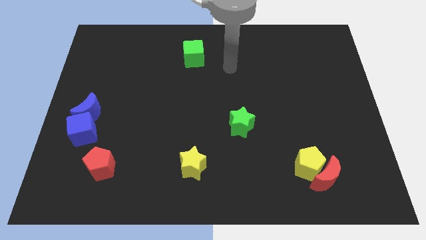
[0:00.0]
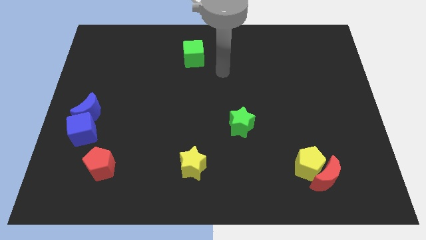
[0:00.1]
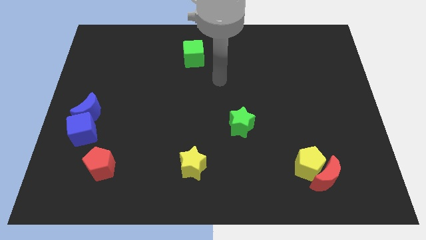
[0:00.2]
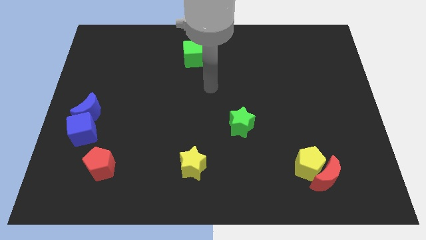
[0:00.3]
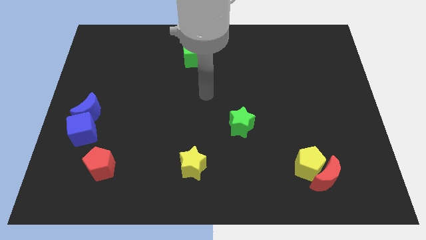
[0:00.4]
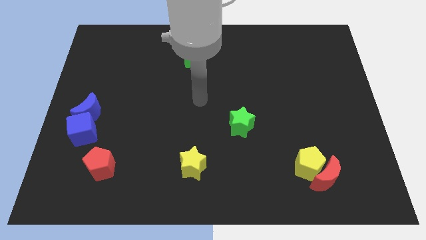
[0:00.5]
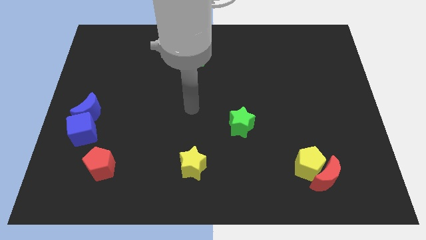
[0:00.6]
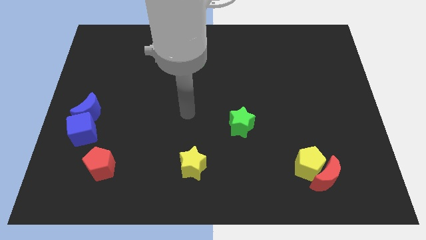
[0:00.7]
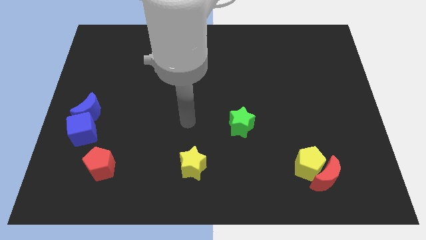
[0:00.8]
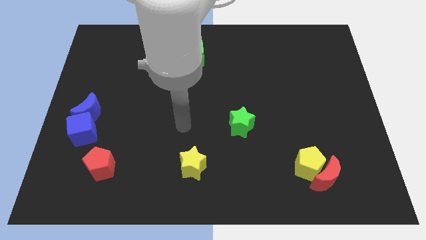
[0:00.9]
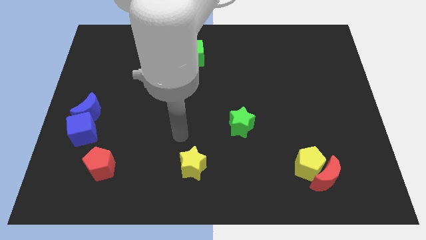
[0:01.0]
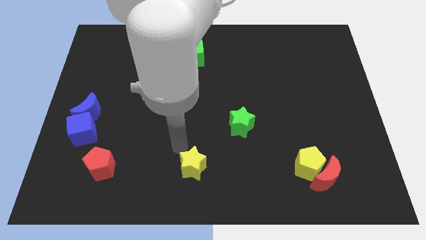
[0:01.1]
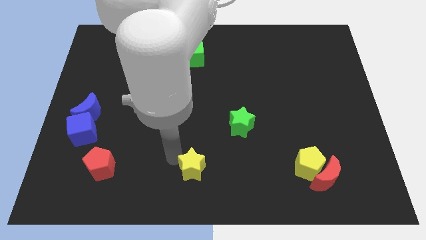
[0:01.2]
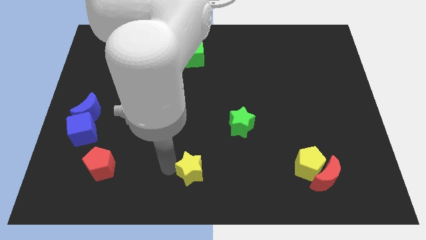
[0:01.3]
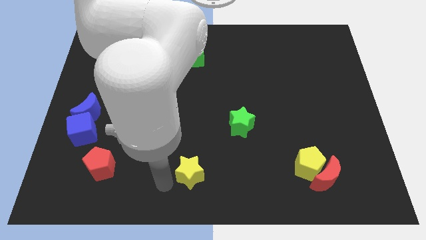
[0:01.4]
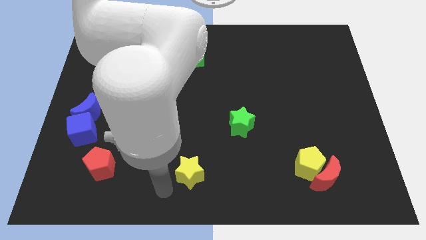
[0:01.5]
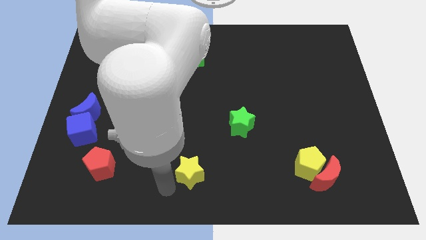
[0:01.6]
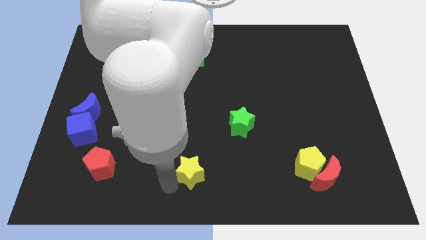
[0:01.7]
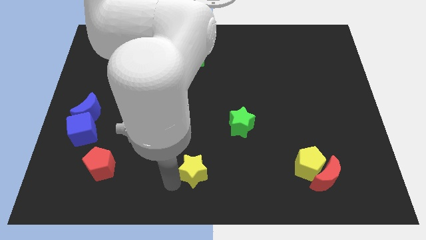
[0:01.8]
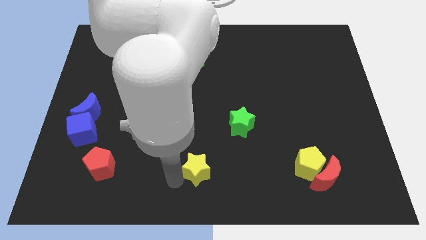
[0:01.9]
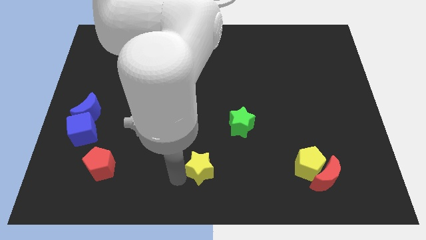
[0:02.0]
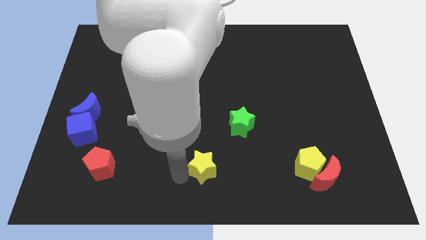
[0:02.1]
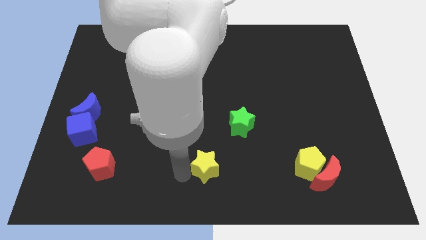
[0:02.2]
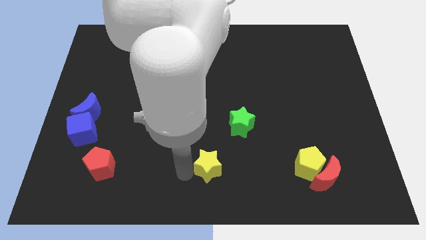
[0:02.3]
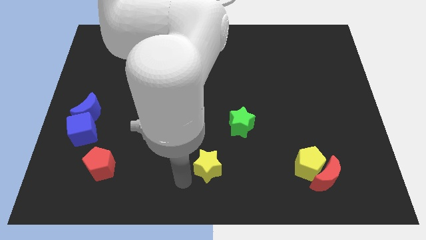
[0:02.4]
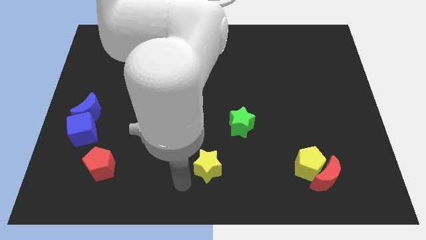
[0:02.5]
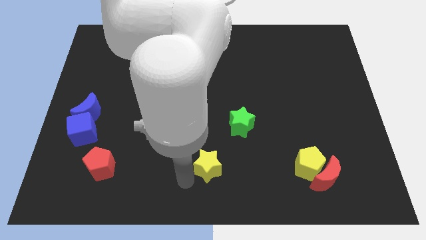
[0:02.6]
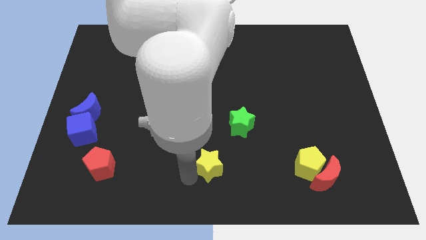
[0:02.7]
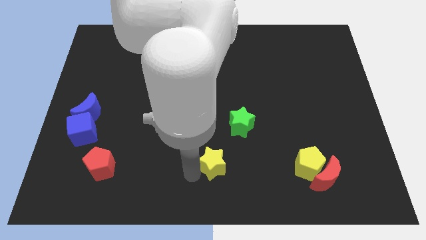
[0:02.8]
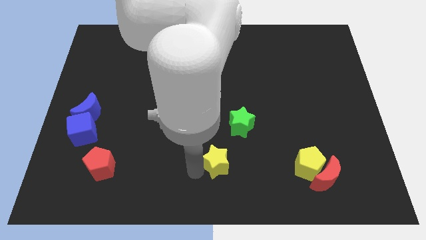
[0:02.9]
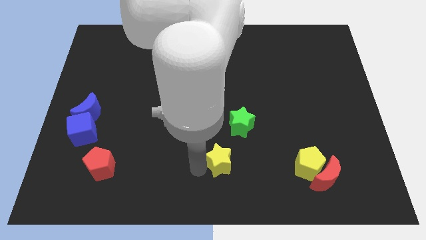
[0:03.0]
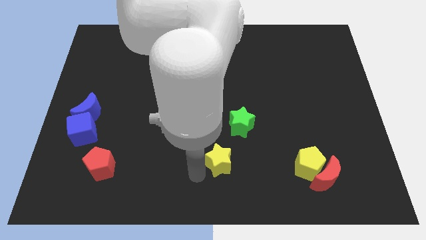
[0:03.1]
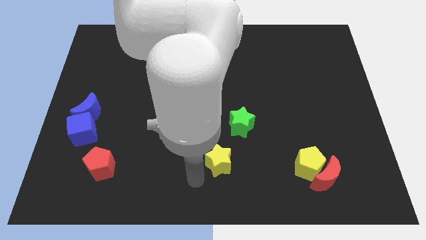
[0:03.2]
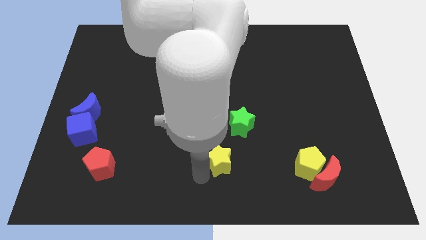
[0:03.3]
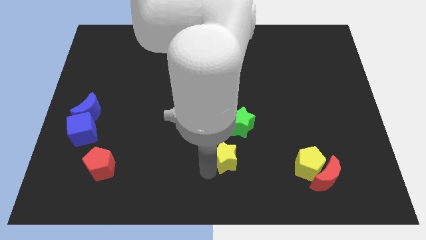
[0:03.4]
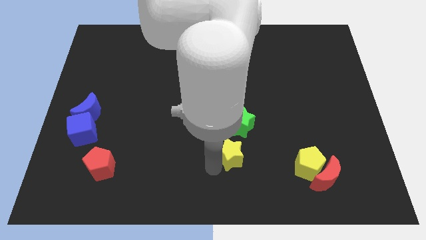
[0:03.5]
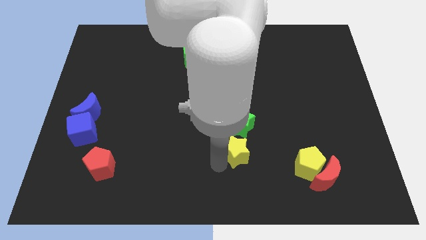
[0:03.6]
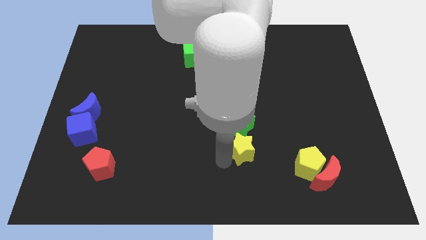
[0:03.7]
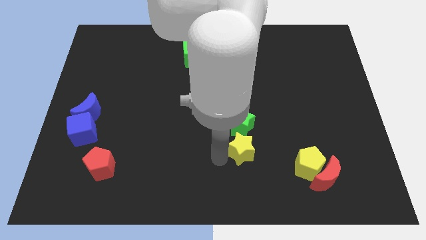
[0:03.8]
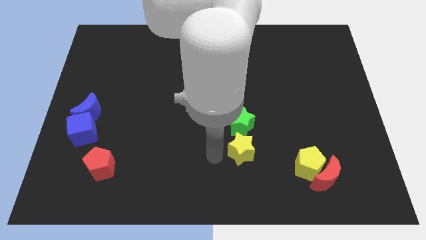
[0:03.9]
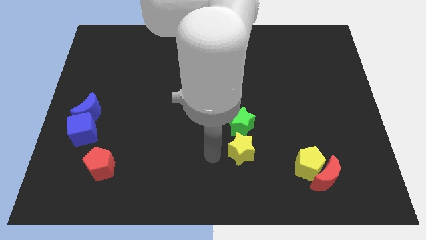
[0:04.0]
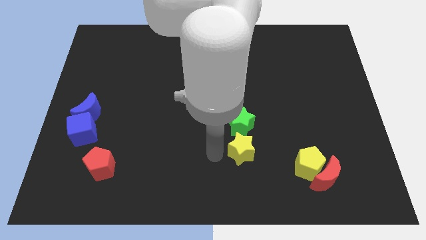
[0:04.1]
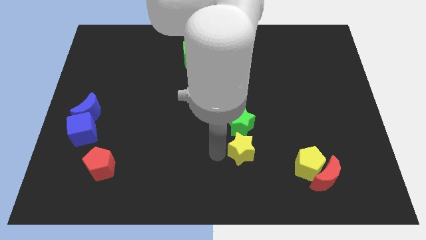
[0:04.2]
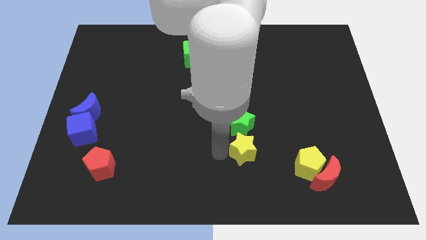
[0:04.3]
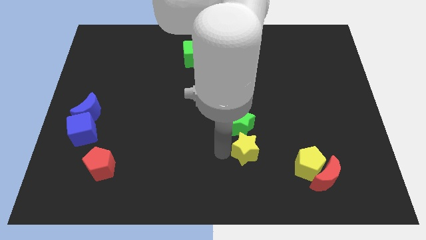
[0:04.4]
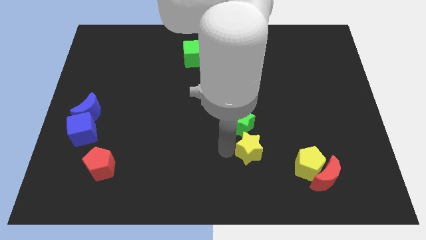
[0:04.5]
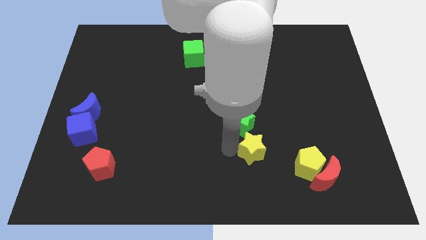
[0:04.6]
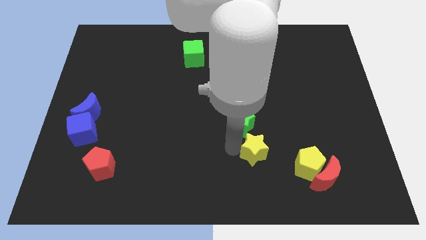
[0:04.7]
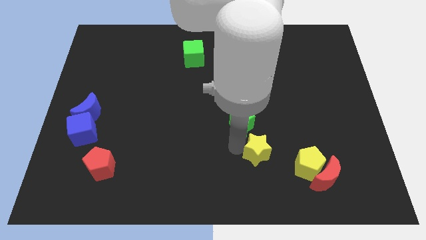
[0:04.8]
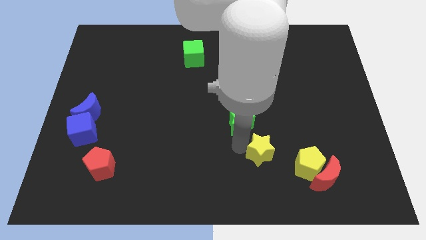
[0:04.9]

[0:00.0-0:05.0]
slide the yellow star diagonally up and to the left of the yellow pentagon
